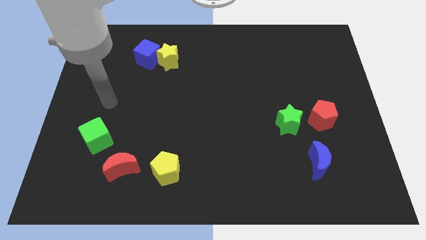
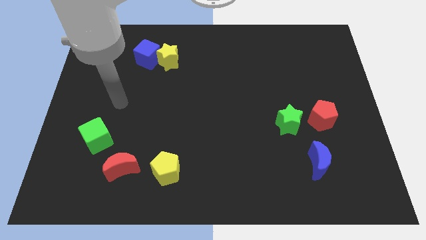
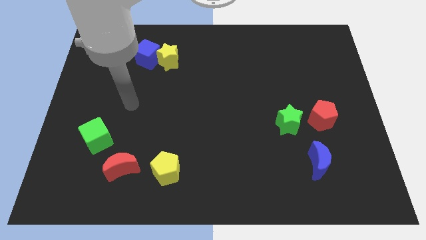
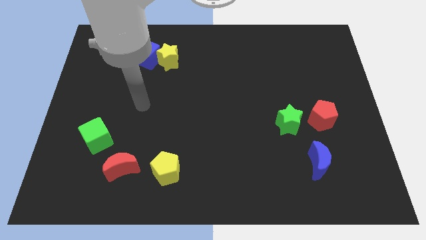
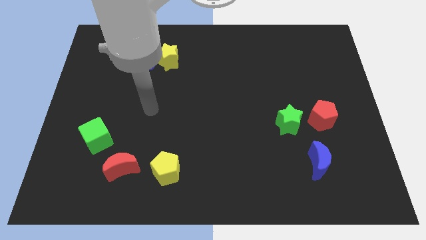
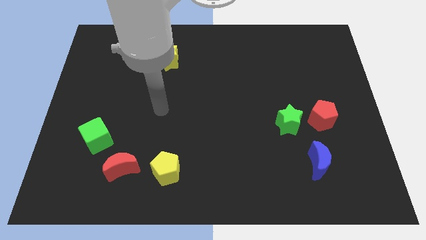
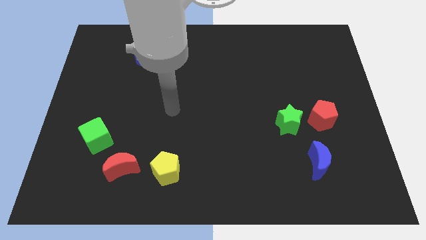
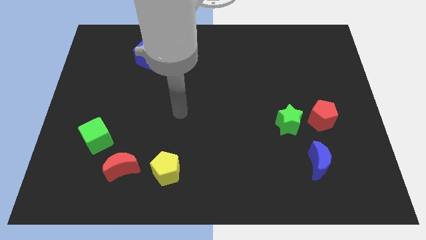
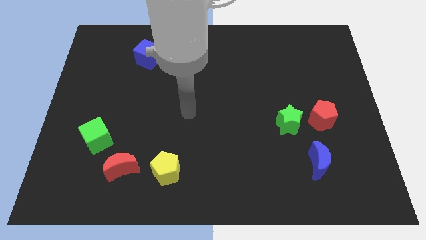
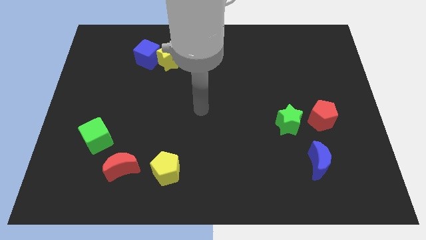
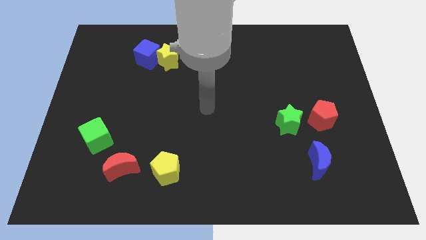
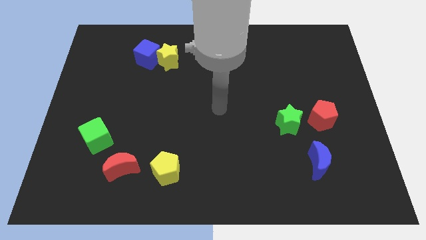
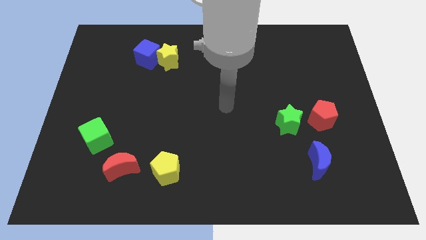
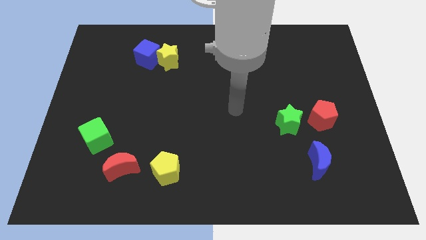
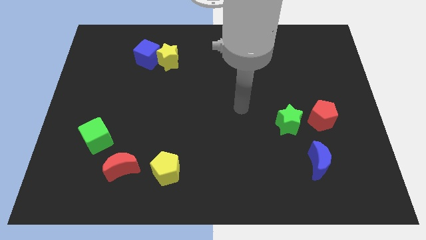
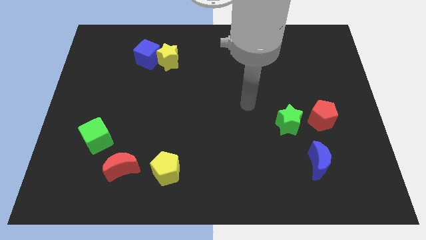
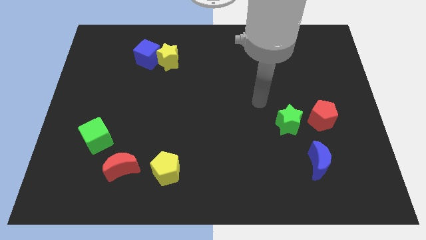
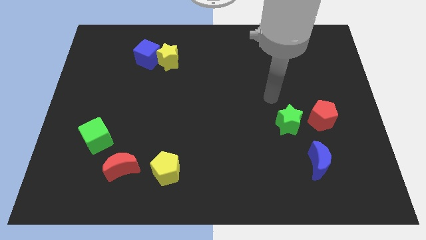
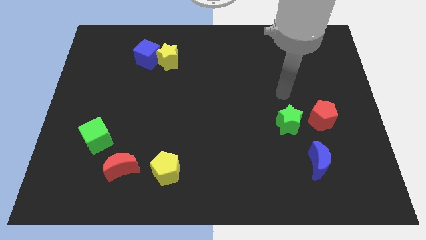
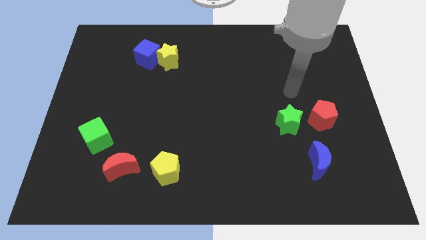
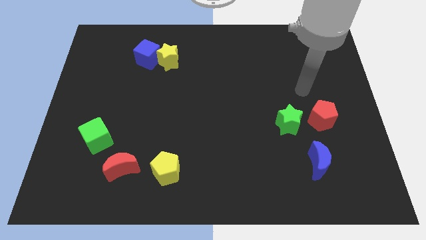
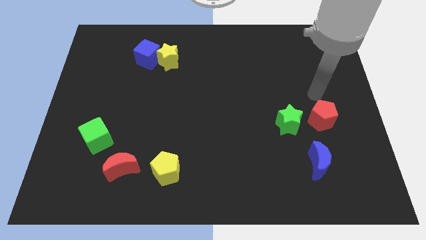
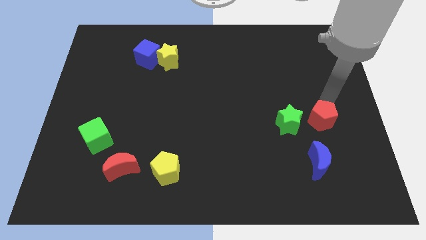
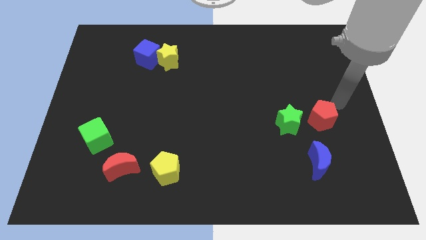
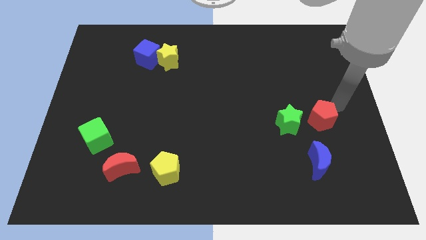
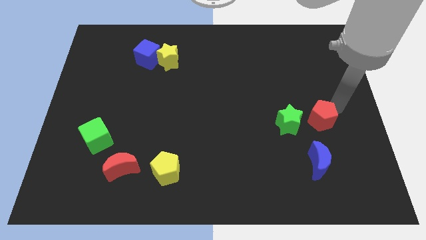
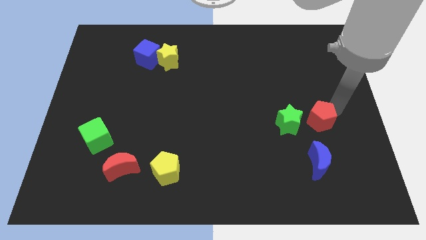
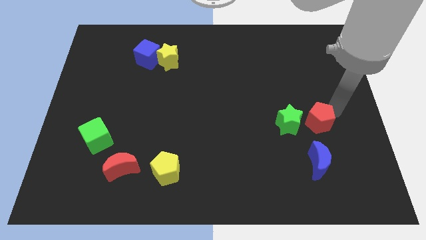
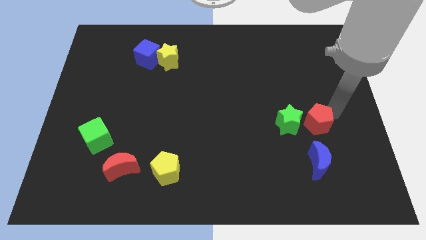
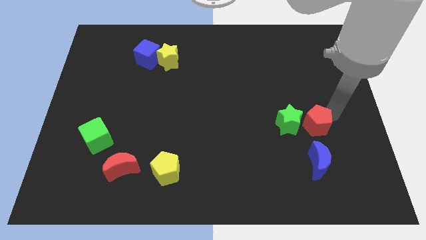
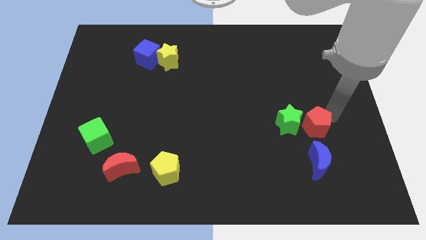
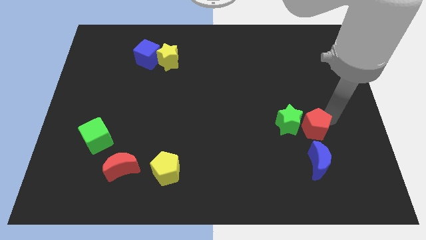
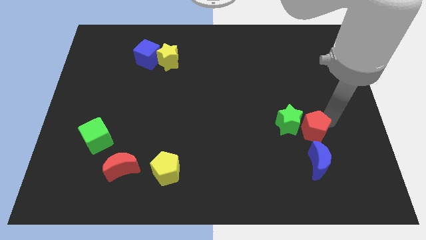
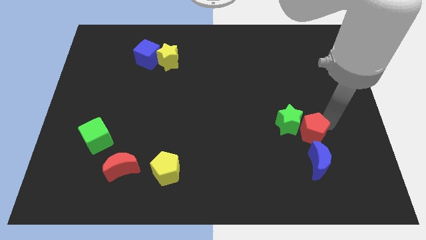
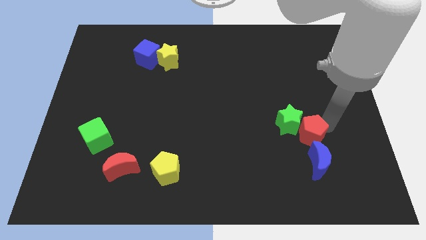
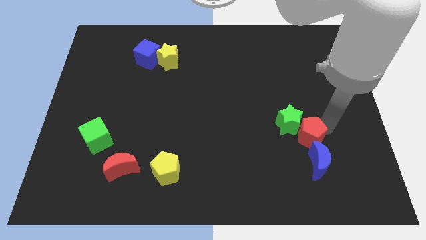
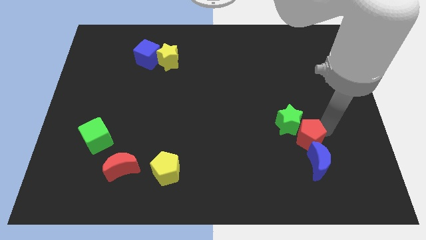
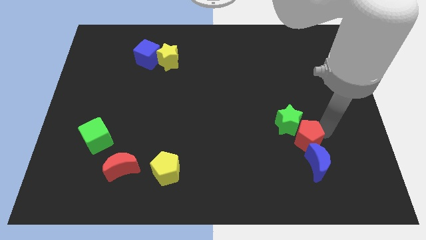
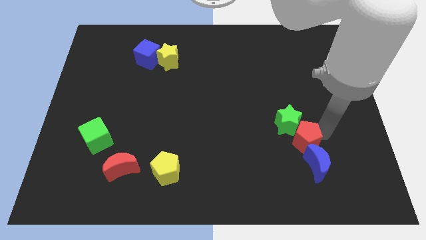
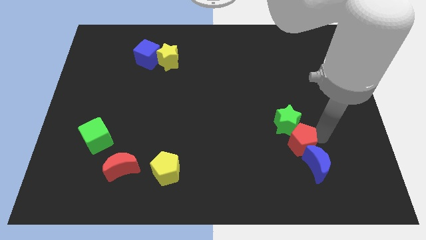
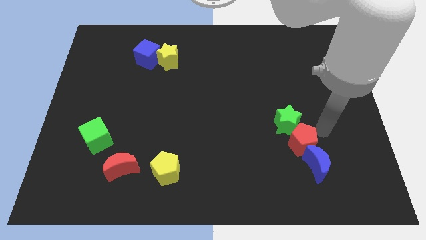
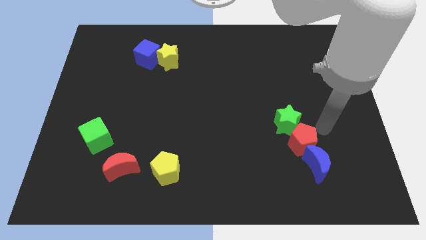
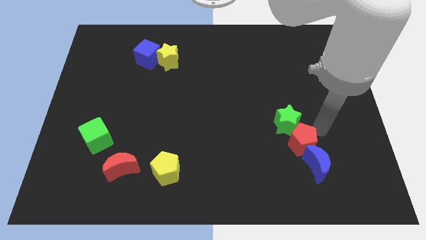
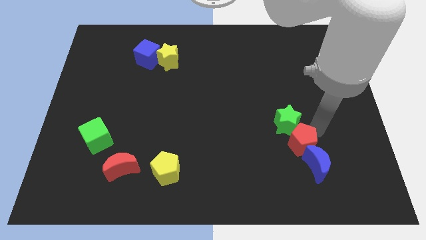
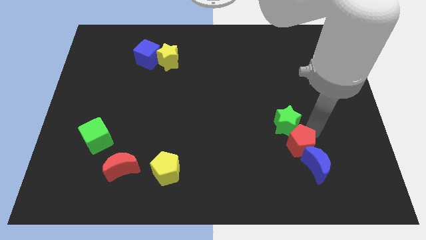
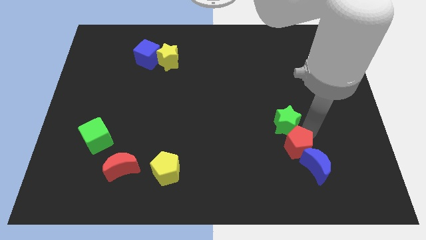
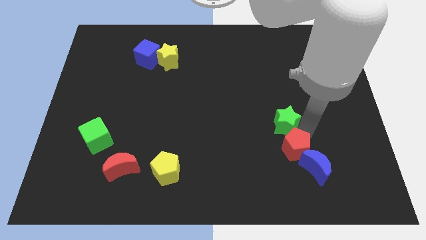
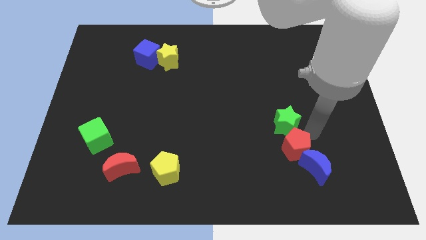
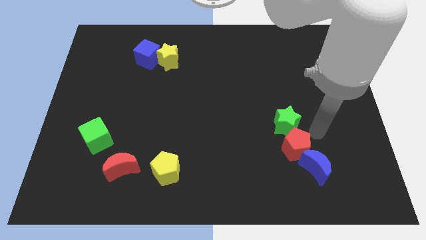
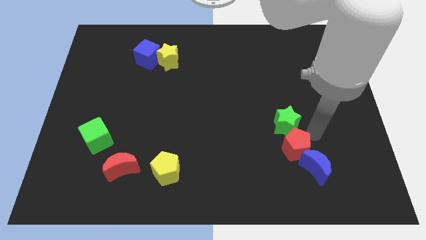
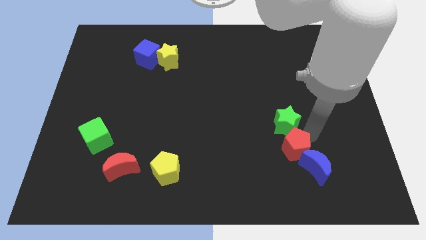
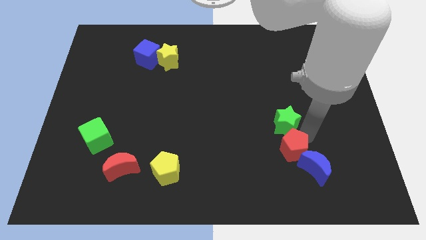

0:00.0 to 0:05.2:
put the red pentagon to the left of the blue moon

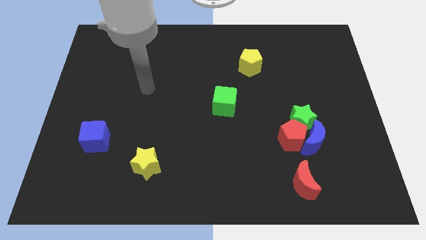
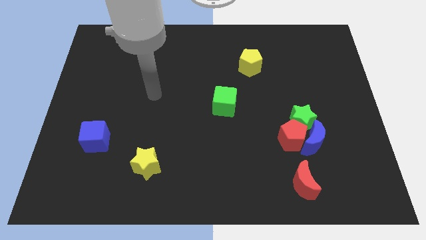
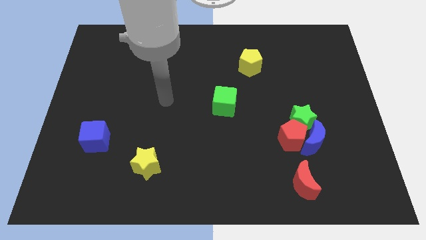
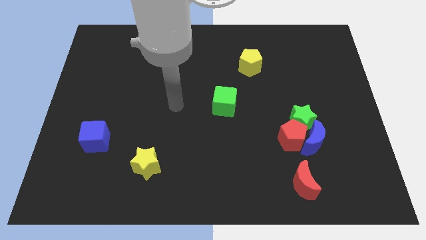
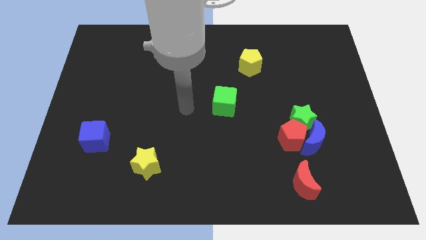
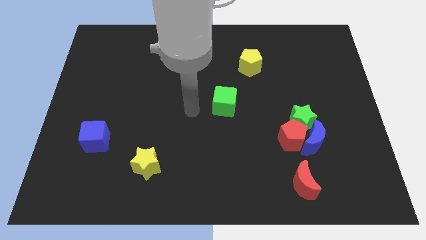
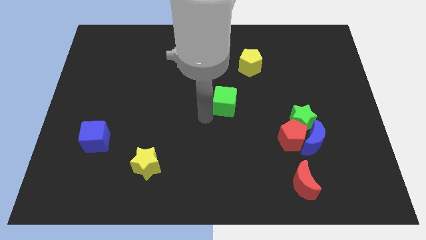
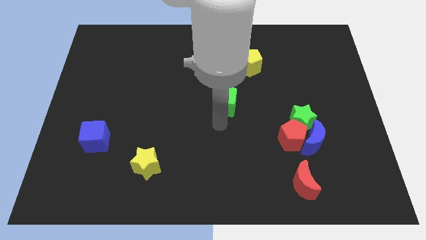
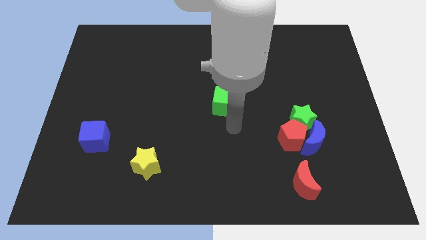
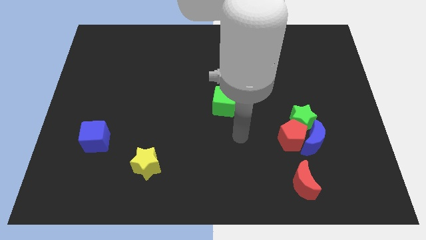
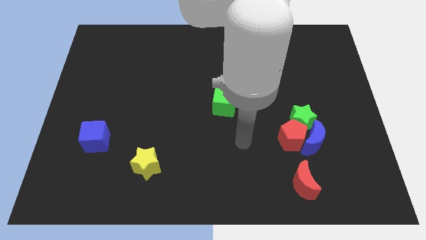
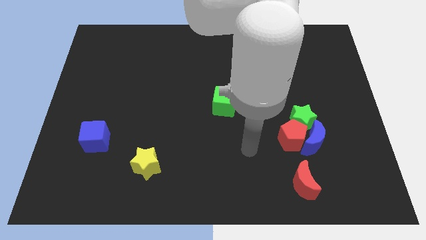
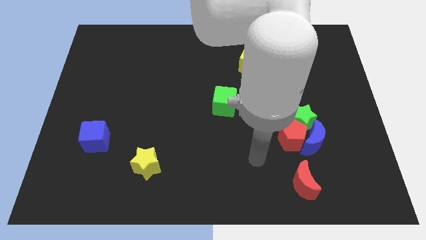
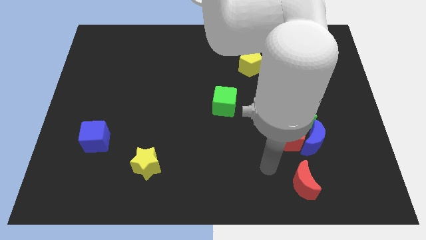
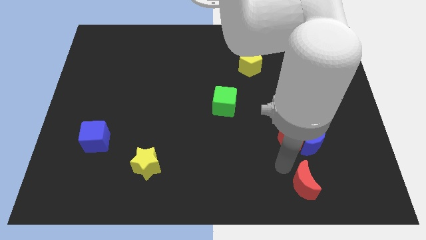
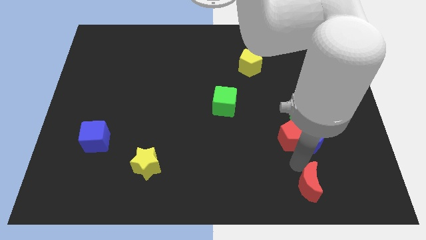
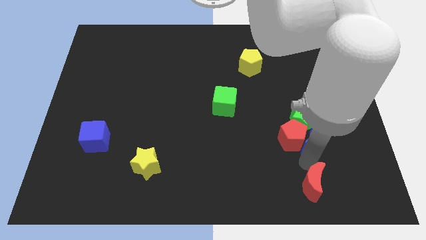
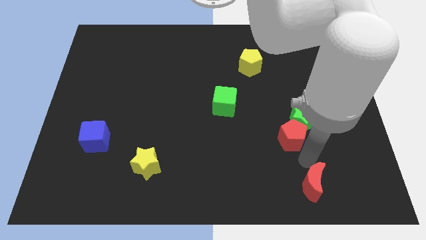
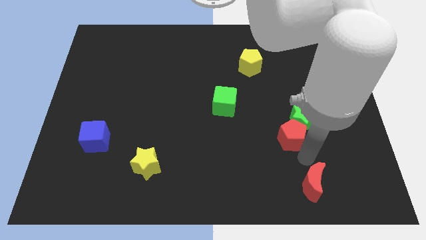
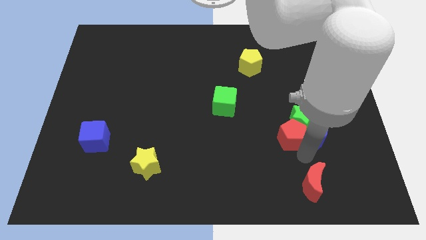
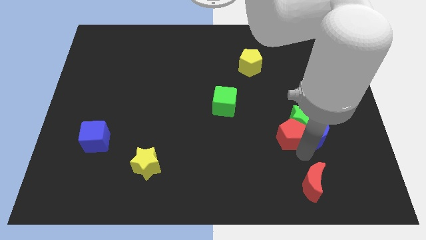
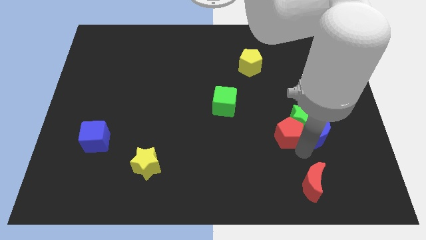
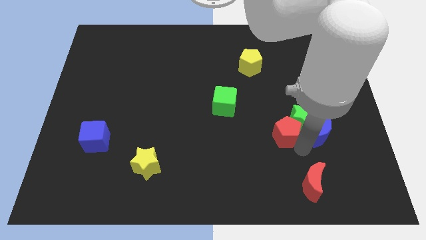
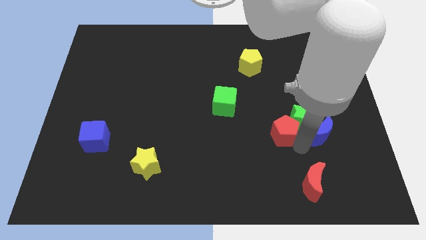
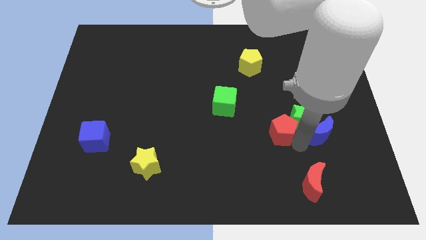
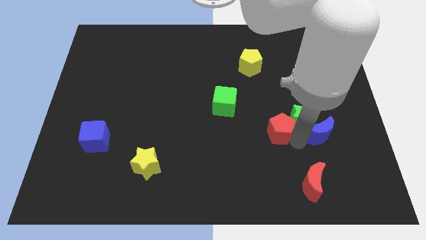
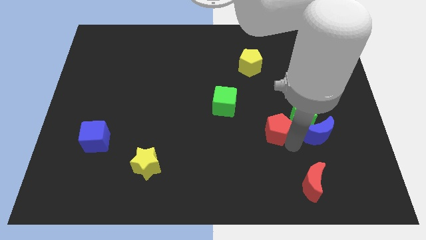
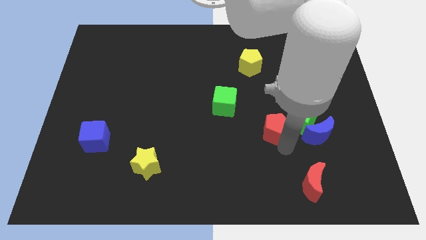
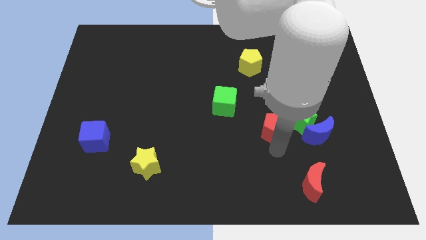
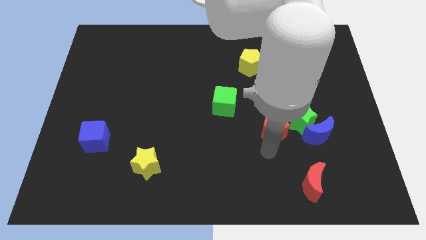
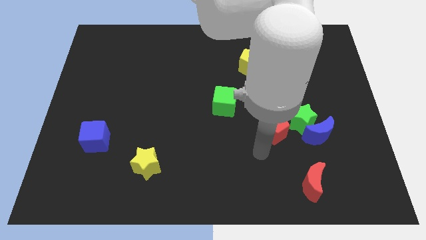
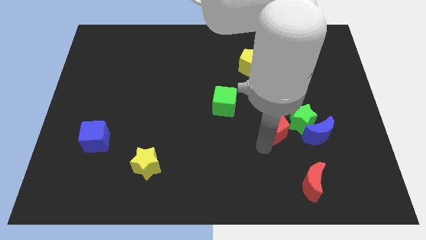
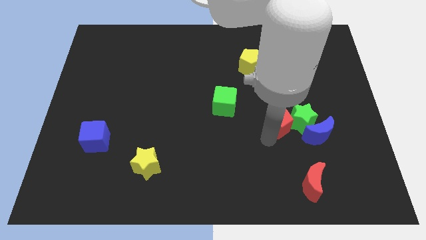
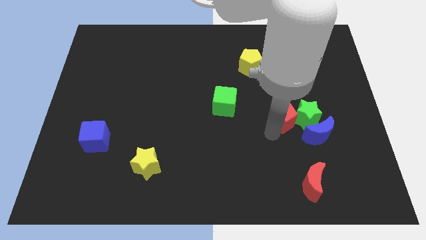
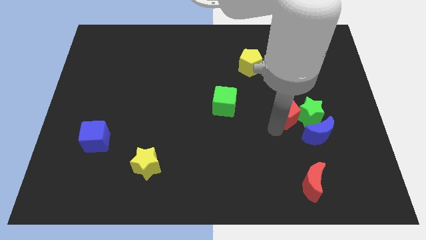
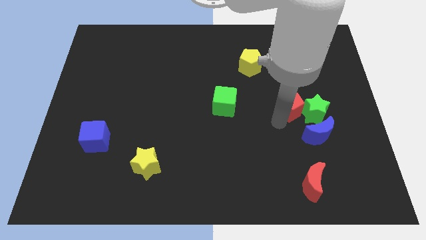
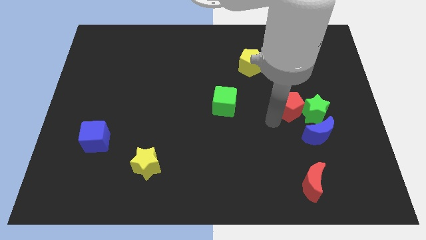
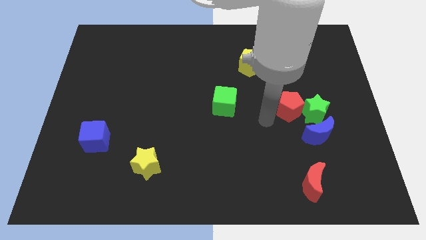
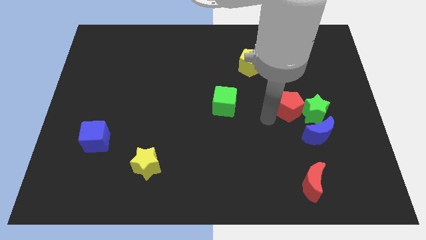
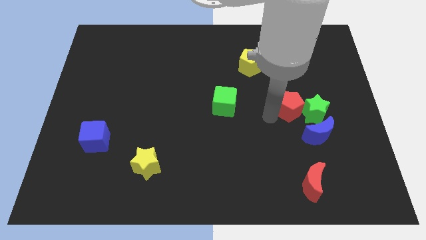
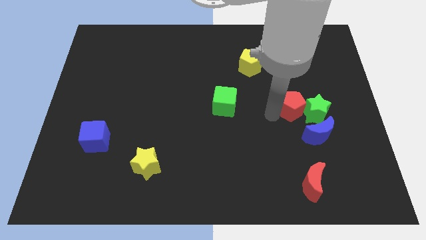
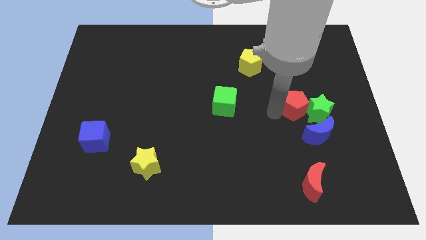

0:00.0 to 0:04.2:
move the red pentagon to the top of the blue moon
